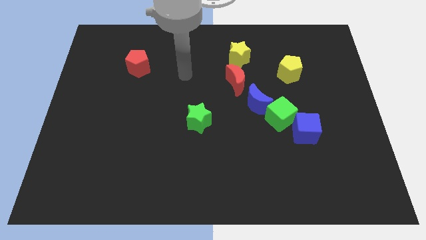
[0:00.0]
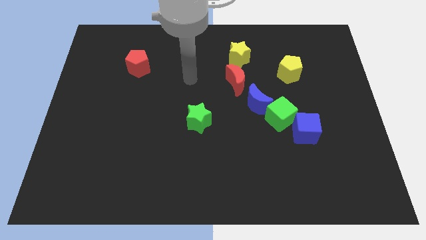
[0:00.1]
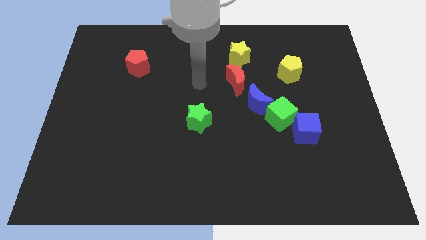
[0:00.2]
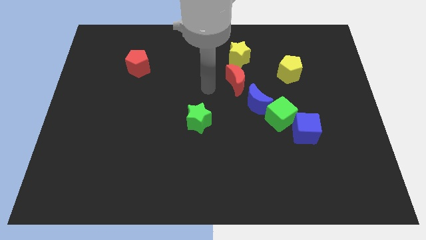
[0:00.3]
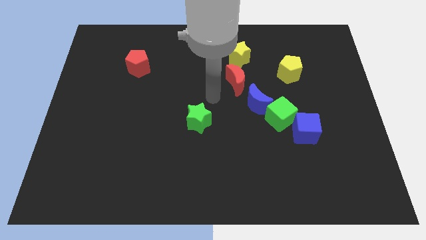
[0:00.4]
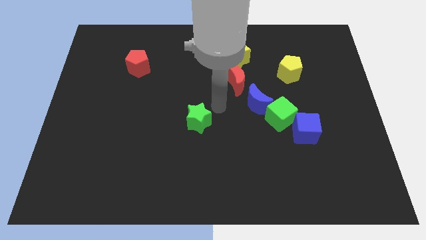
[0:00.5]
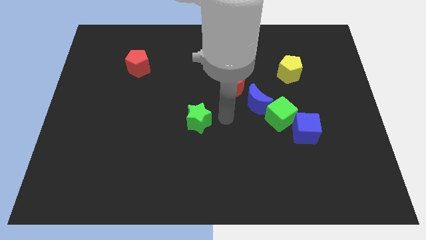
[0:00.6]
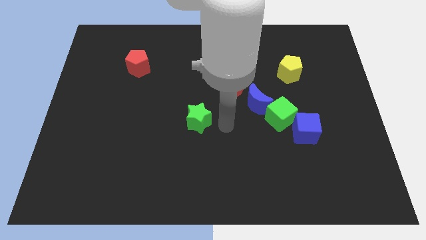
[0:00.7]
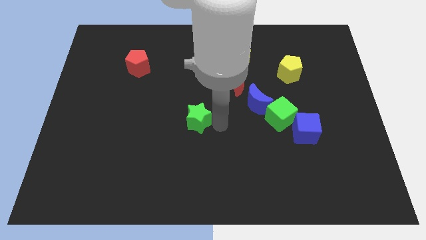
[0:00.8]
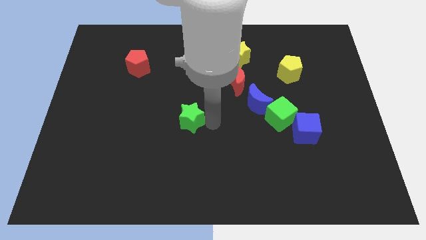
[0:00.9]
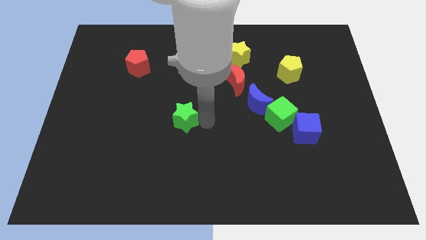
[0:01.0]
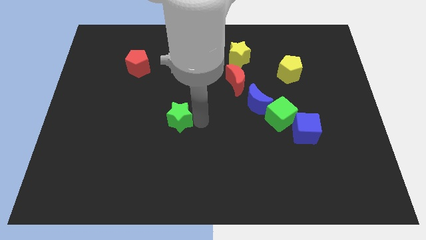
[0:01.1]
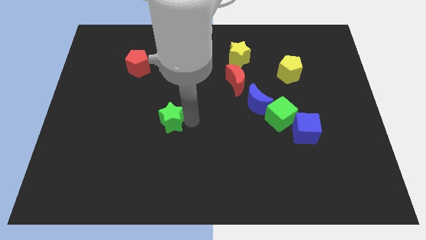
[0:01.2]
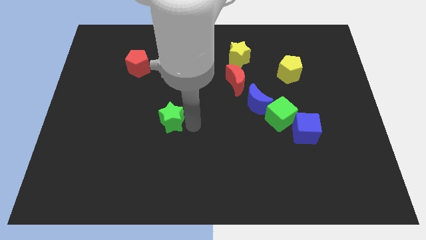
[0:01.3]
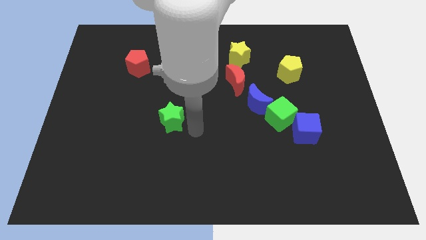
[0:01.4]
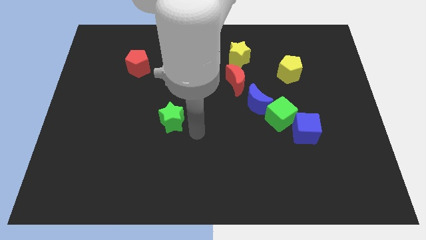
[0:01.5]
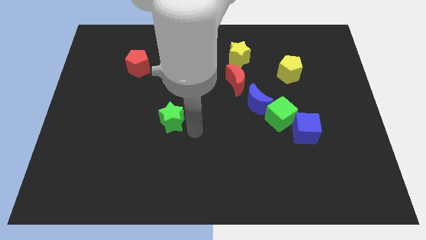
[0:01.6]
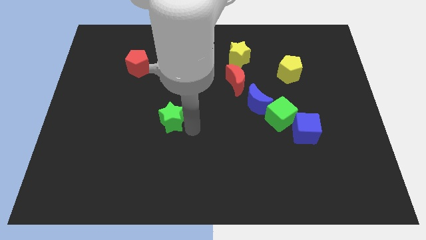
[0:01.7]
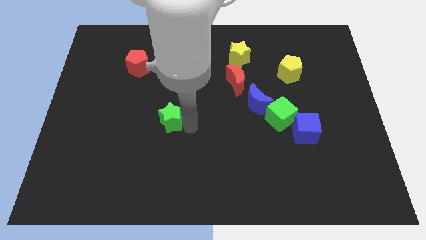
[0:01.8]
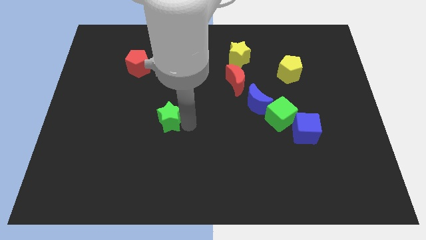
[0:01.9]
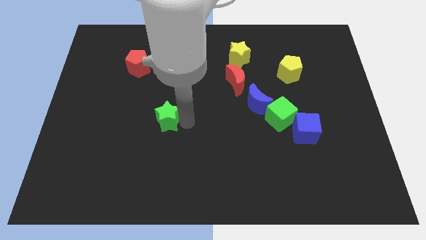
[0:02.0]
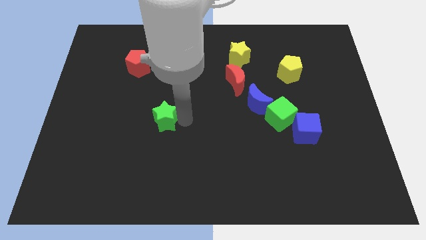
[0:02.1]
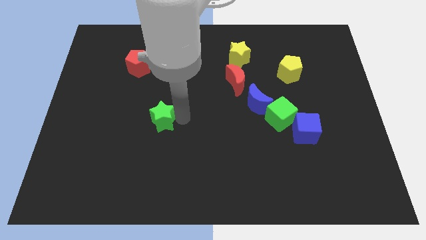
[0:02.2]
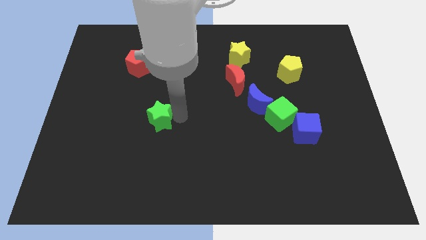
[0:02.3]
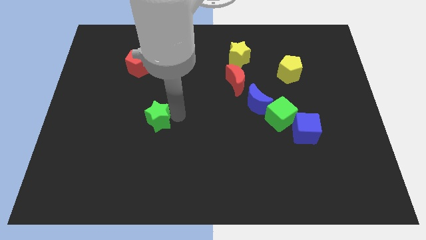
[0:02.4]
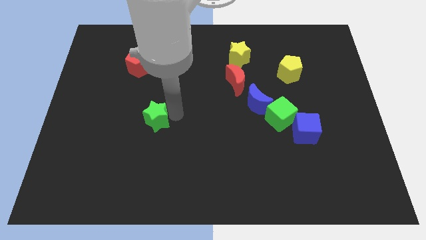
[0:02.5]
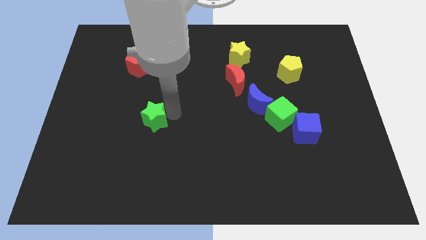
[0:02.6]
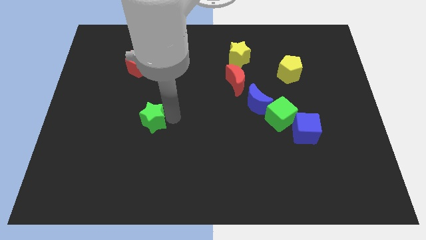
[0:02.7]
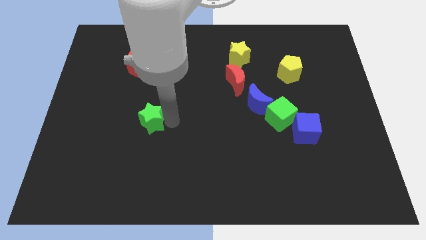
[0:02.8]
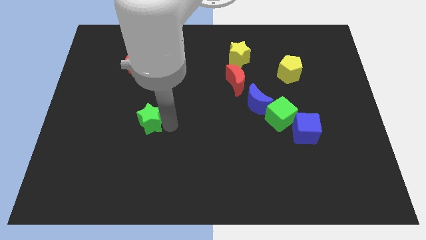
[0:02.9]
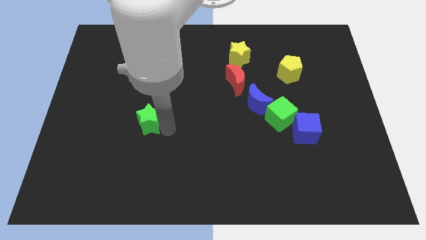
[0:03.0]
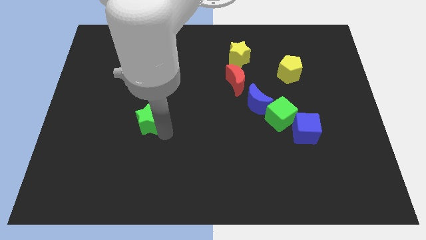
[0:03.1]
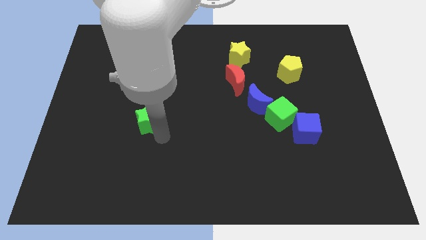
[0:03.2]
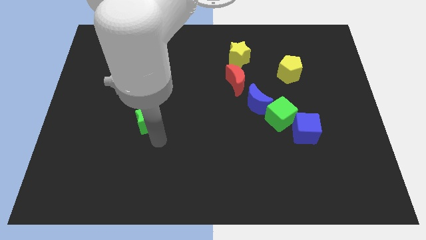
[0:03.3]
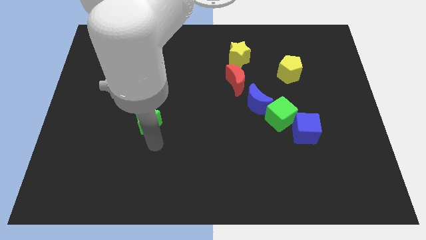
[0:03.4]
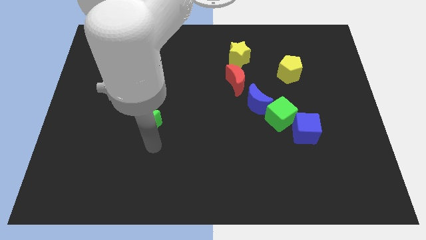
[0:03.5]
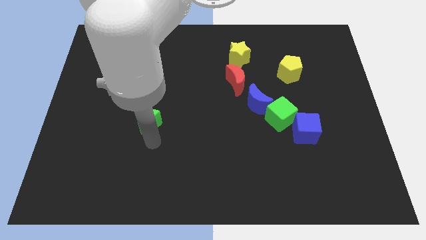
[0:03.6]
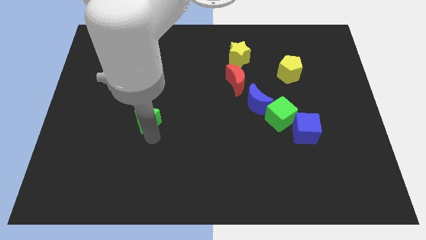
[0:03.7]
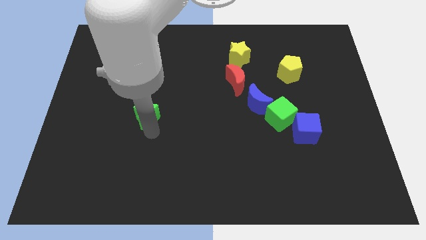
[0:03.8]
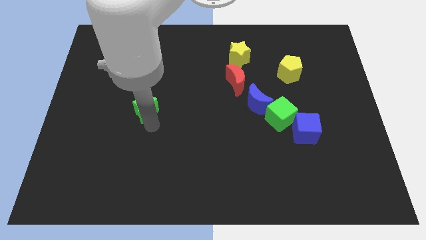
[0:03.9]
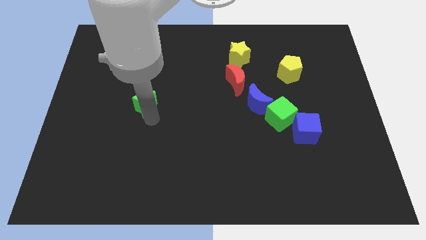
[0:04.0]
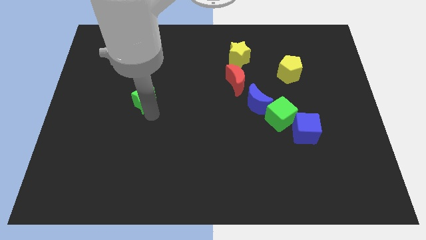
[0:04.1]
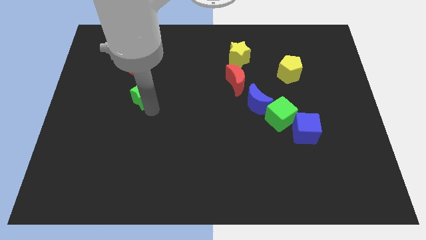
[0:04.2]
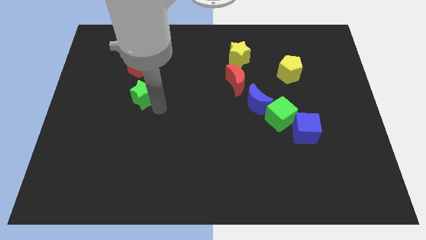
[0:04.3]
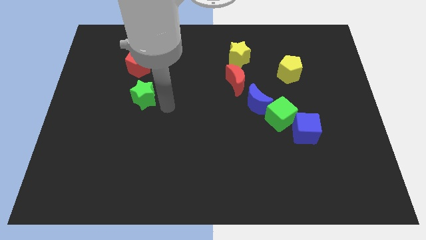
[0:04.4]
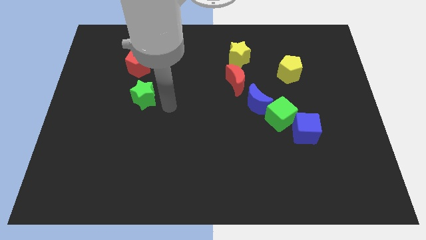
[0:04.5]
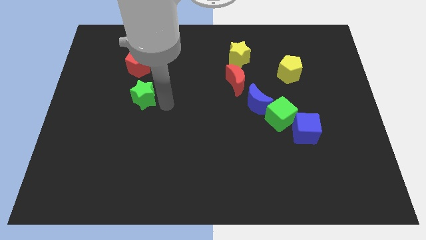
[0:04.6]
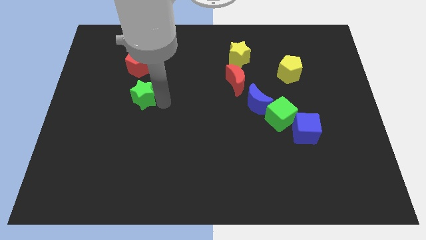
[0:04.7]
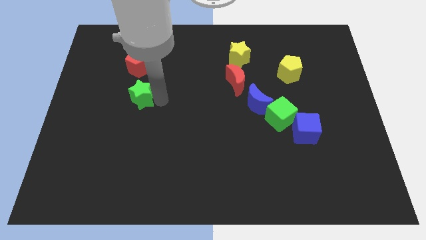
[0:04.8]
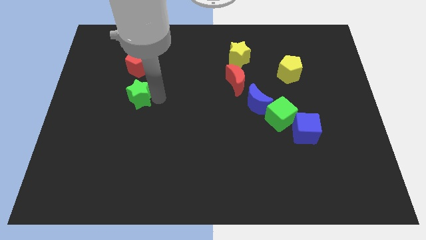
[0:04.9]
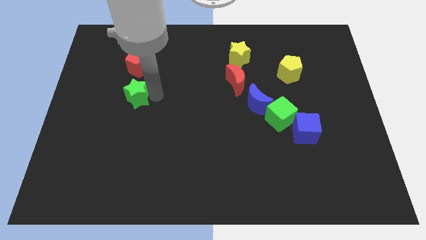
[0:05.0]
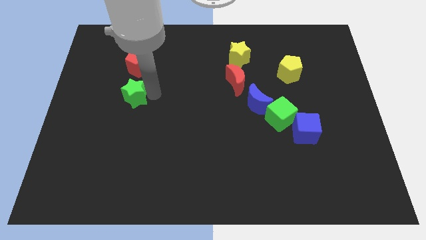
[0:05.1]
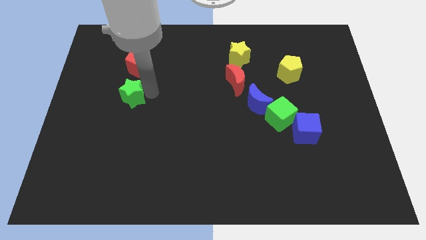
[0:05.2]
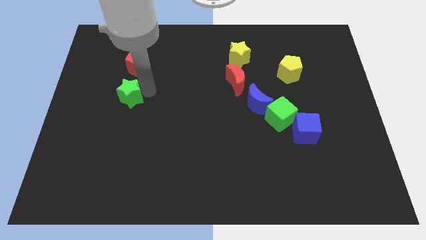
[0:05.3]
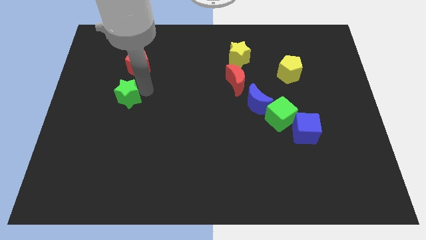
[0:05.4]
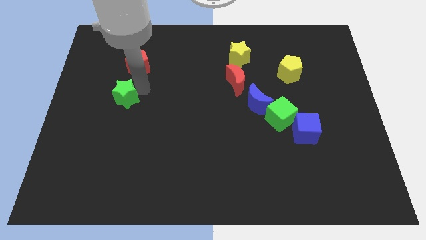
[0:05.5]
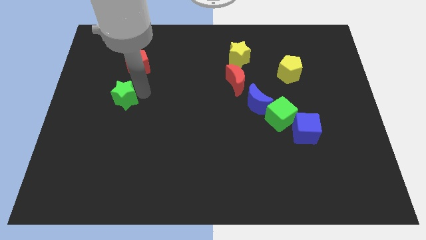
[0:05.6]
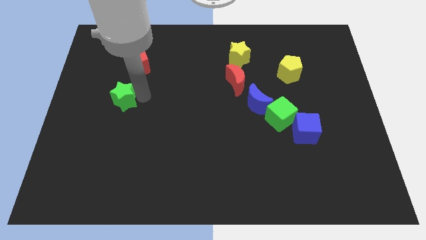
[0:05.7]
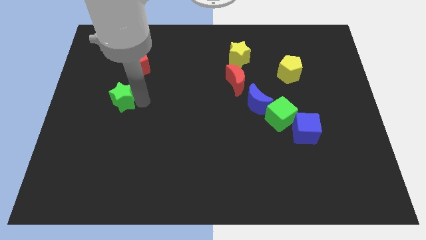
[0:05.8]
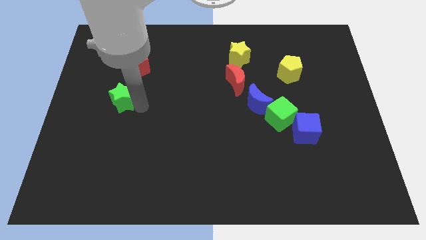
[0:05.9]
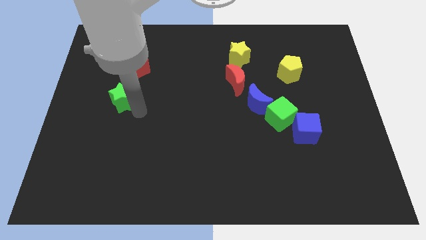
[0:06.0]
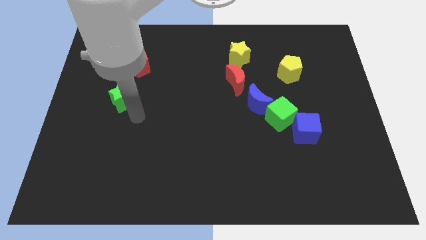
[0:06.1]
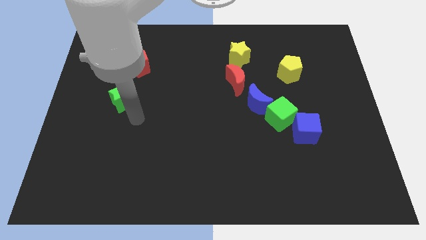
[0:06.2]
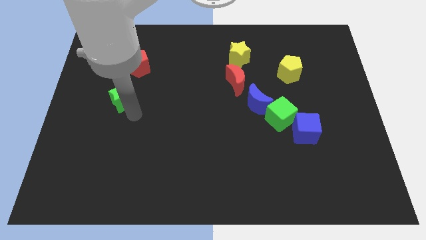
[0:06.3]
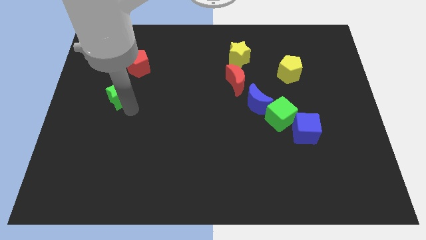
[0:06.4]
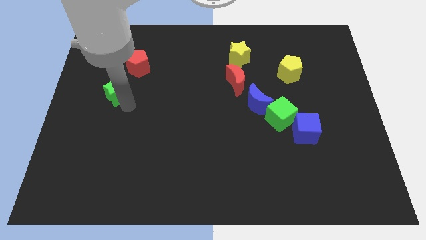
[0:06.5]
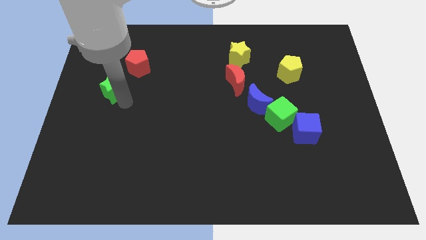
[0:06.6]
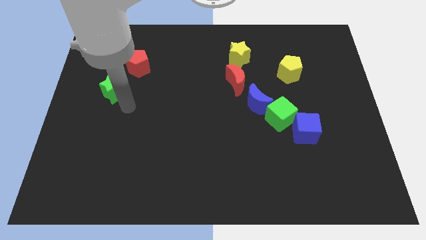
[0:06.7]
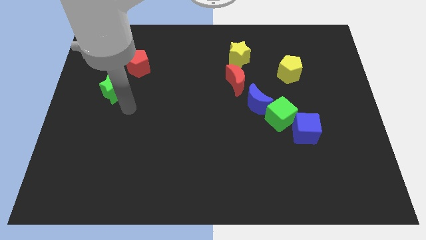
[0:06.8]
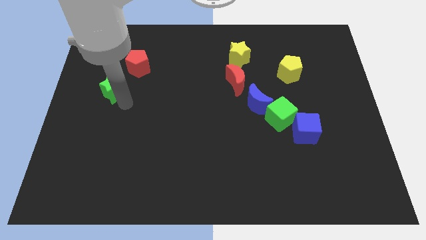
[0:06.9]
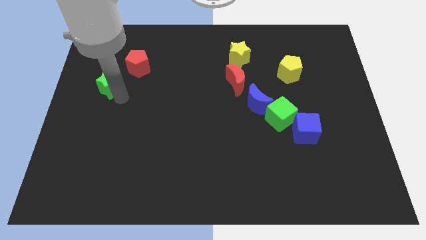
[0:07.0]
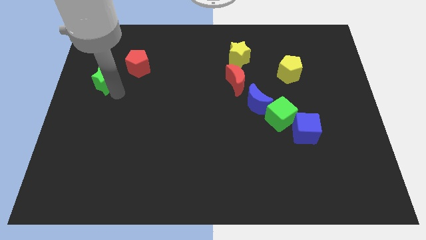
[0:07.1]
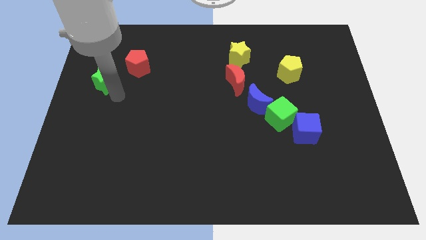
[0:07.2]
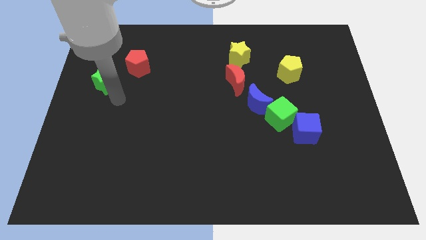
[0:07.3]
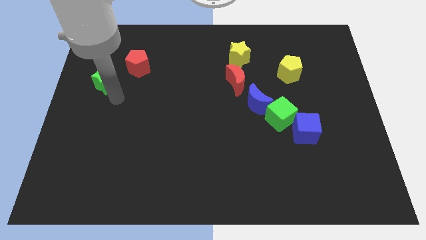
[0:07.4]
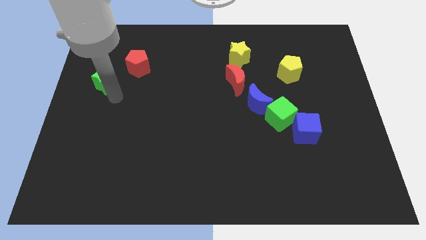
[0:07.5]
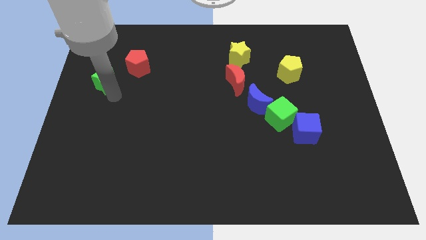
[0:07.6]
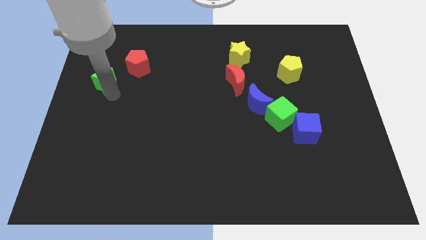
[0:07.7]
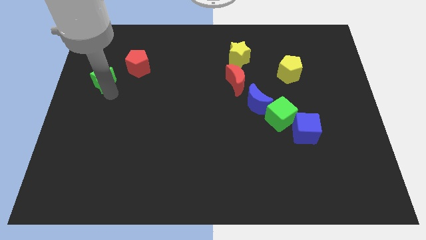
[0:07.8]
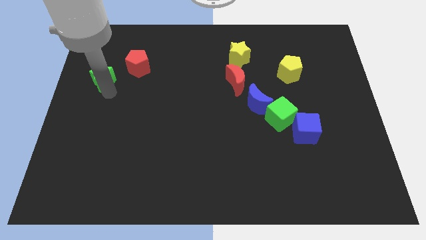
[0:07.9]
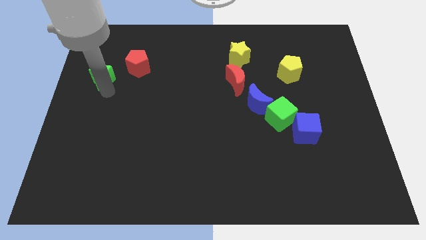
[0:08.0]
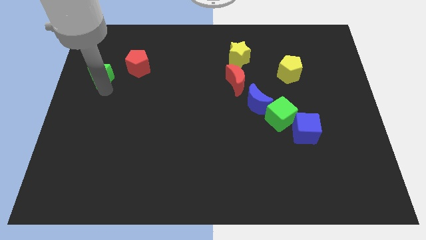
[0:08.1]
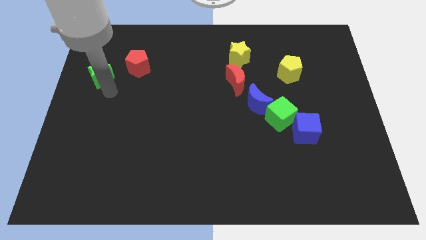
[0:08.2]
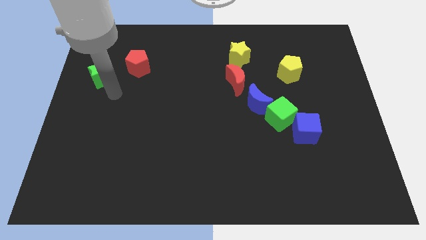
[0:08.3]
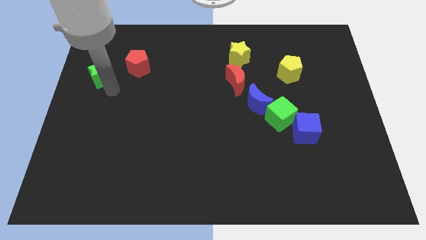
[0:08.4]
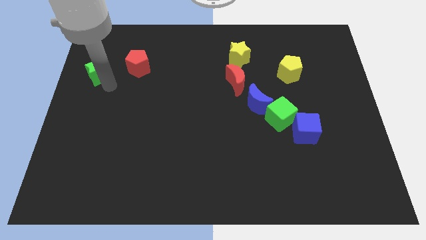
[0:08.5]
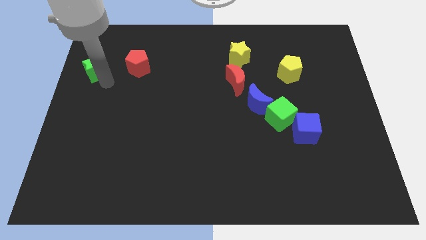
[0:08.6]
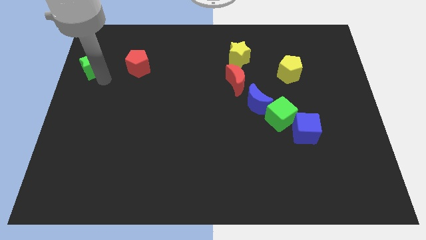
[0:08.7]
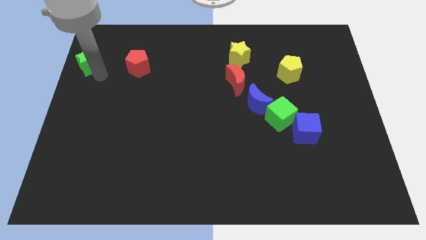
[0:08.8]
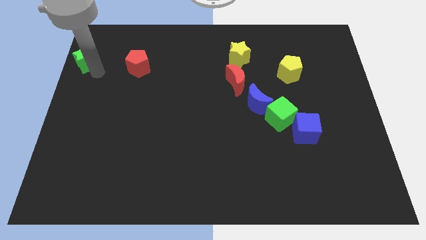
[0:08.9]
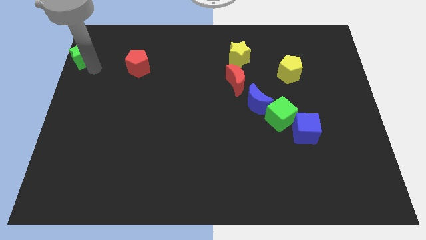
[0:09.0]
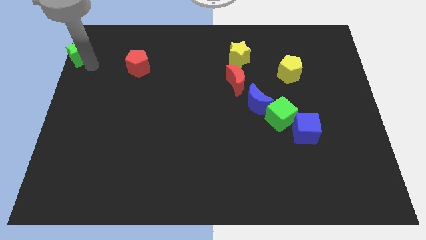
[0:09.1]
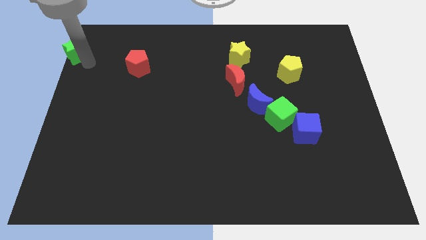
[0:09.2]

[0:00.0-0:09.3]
push the green star to the upper left corner
